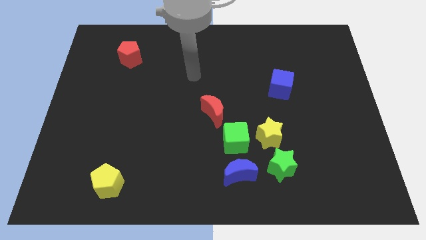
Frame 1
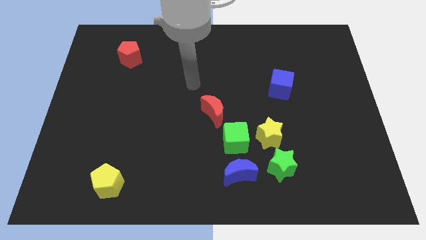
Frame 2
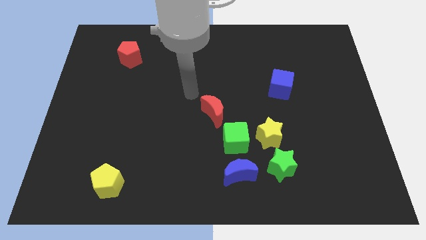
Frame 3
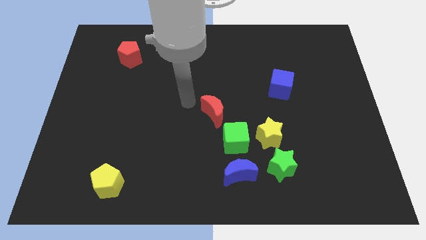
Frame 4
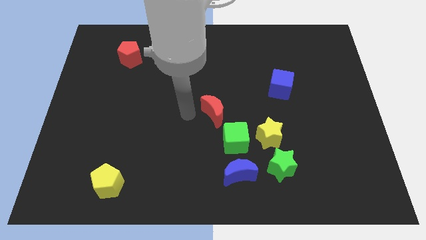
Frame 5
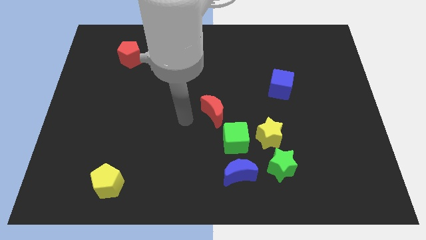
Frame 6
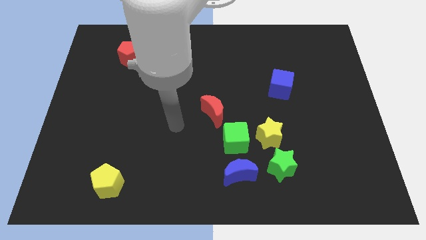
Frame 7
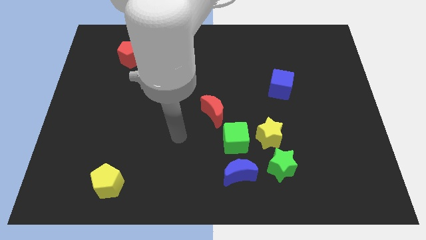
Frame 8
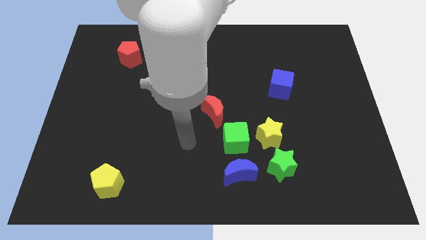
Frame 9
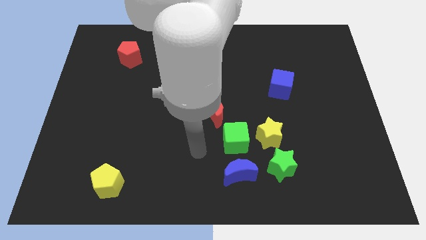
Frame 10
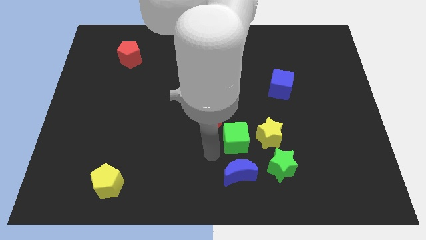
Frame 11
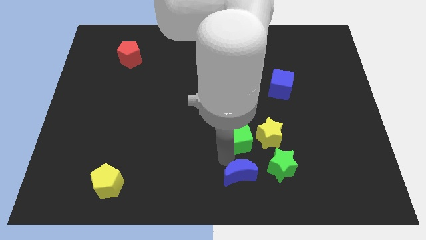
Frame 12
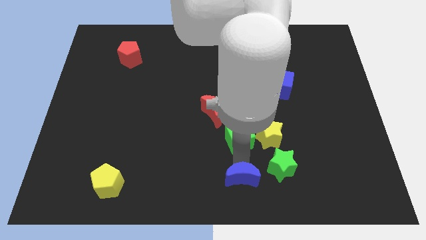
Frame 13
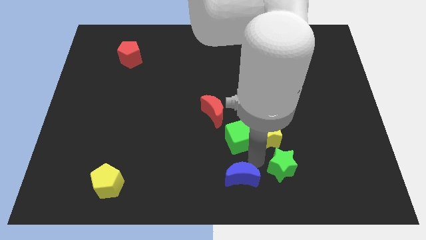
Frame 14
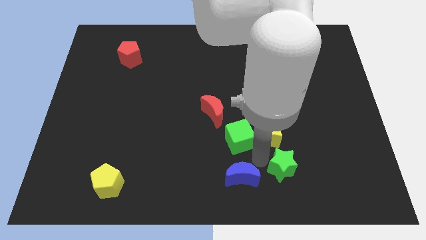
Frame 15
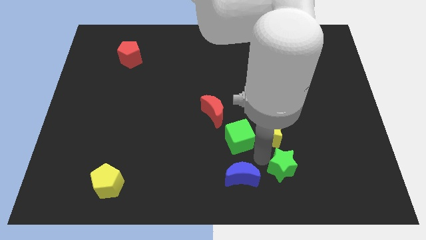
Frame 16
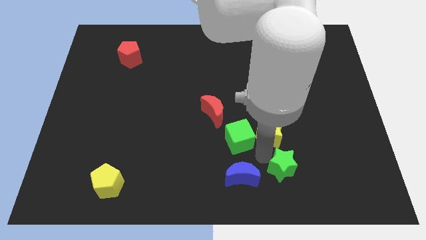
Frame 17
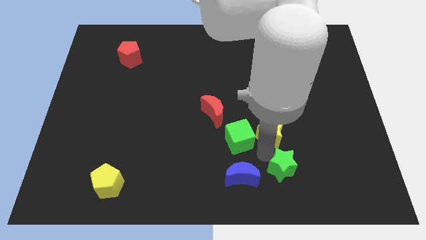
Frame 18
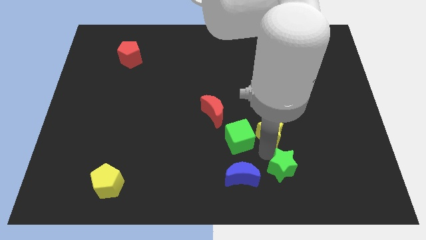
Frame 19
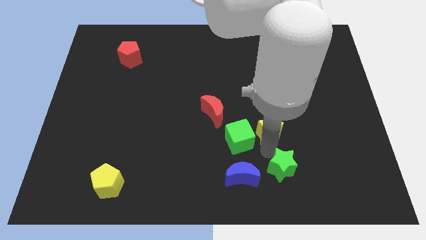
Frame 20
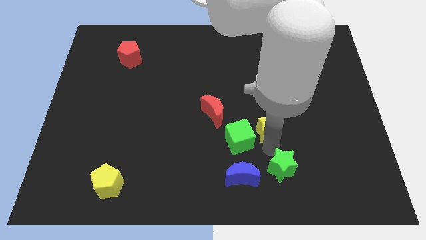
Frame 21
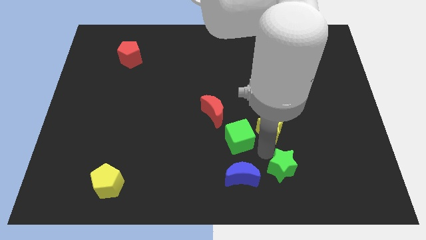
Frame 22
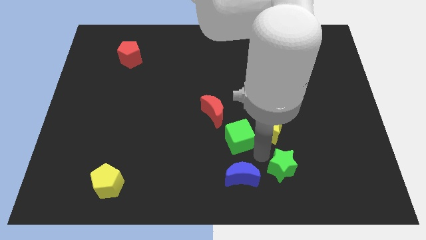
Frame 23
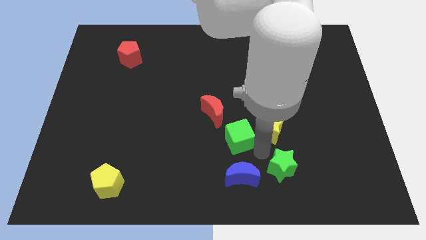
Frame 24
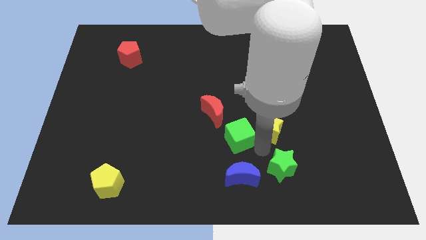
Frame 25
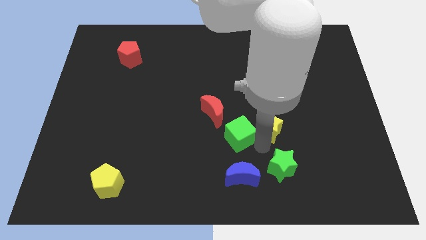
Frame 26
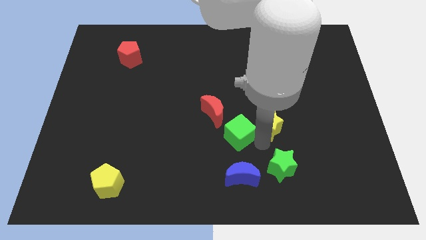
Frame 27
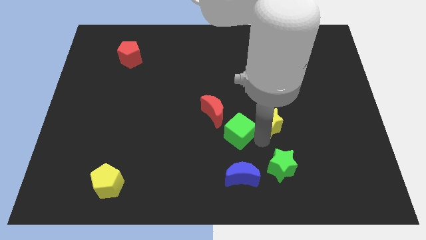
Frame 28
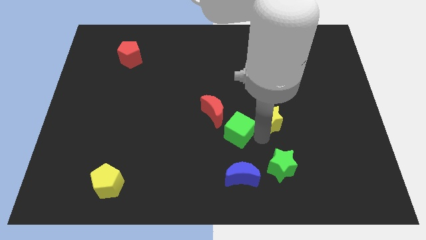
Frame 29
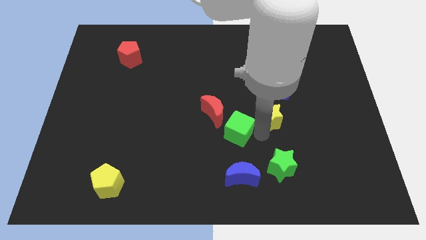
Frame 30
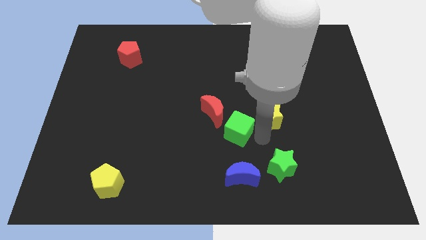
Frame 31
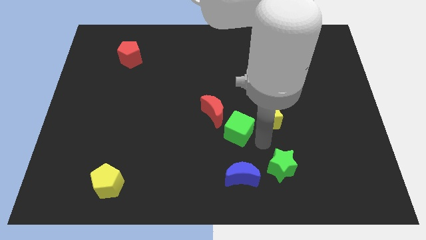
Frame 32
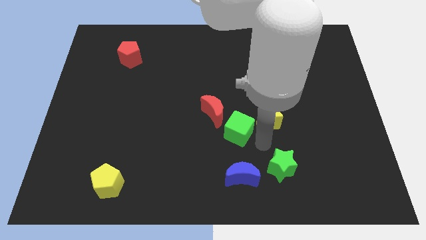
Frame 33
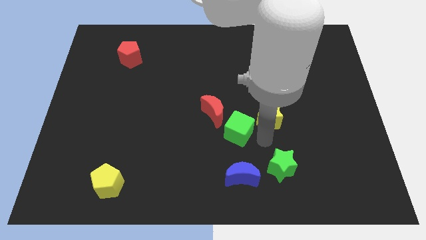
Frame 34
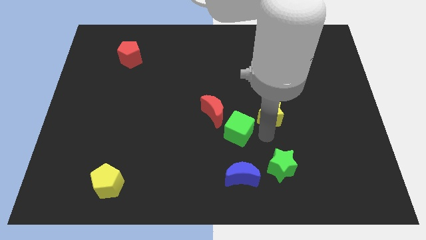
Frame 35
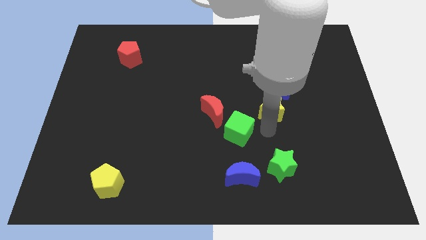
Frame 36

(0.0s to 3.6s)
separate the yellow star from the green cube and green star

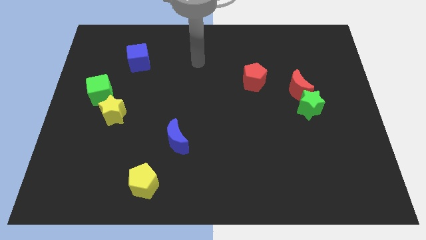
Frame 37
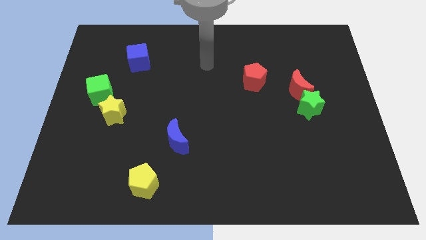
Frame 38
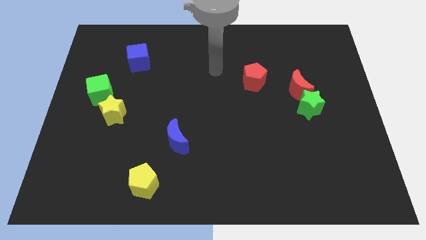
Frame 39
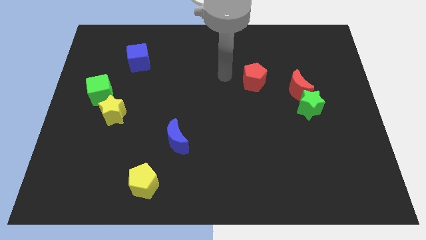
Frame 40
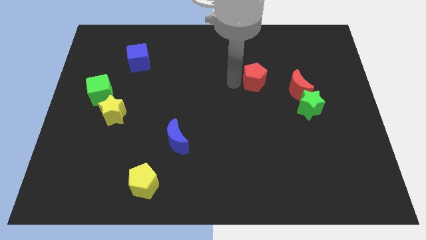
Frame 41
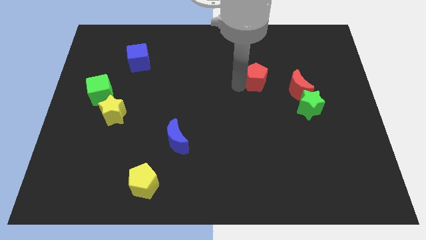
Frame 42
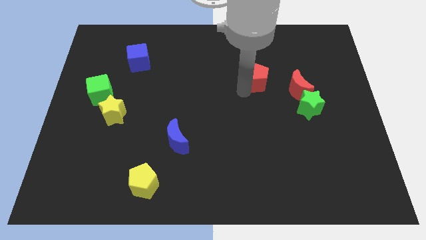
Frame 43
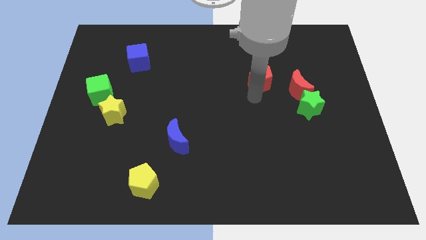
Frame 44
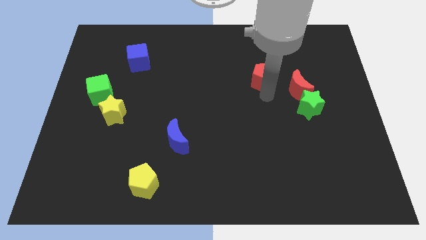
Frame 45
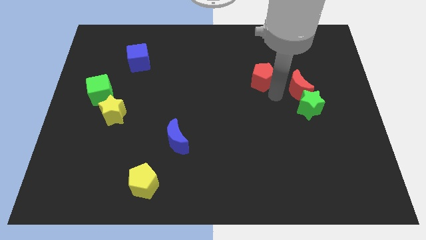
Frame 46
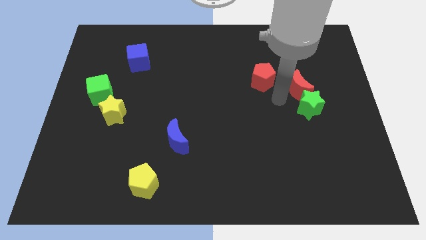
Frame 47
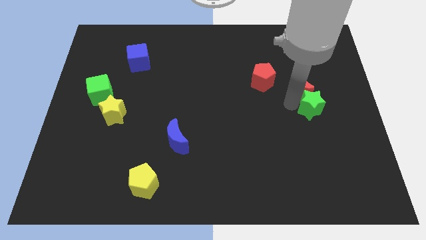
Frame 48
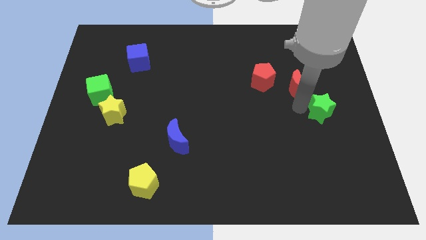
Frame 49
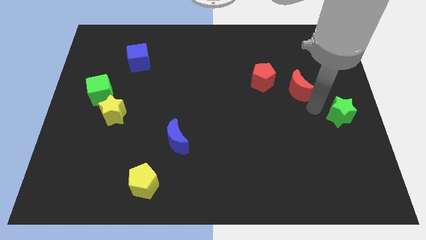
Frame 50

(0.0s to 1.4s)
move the red moon away from the green star

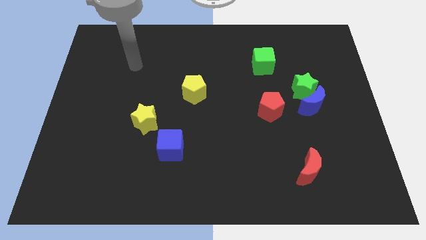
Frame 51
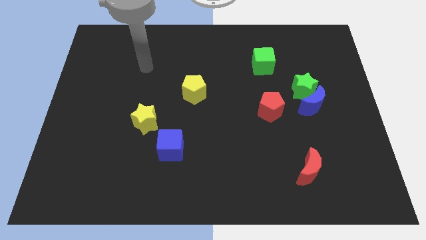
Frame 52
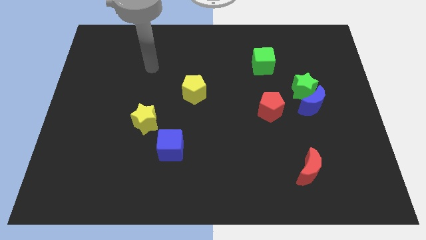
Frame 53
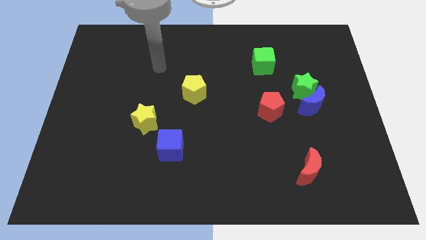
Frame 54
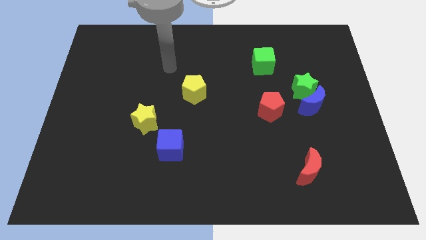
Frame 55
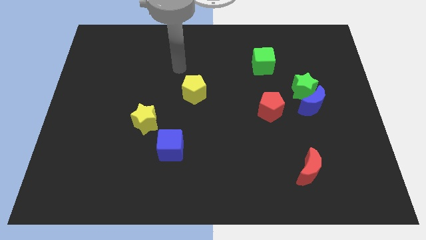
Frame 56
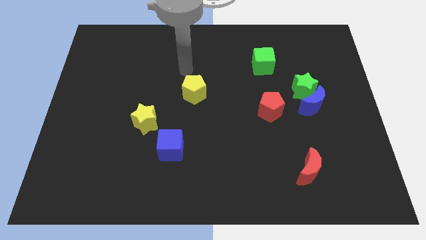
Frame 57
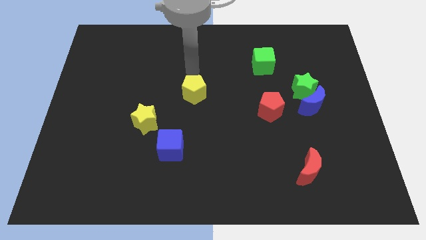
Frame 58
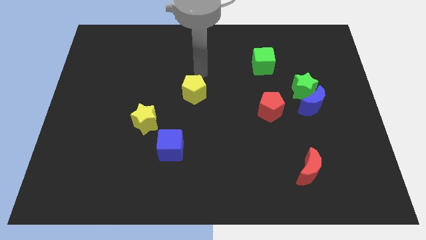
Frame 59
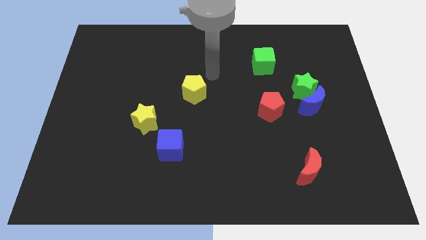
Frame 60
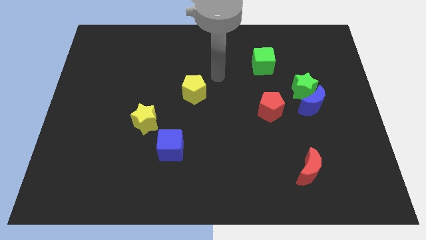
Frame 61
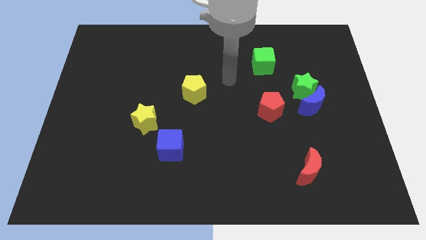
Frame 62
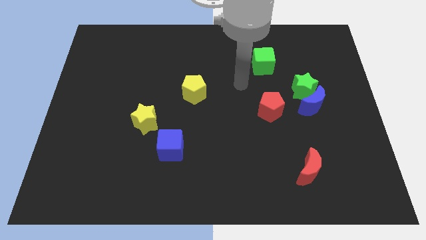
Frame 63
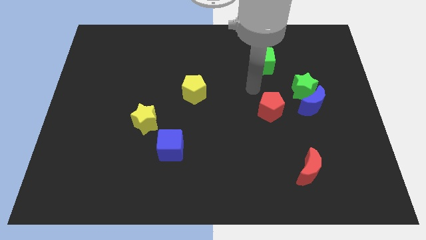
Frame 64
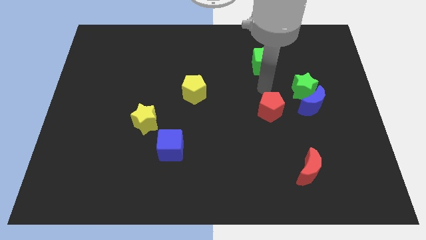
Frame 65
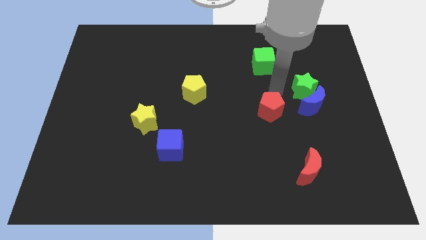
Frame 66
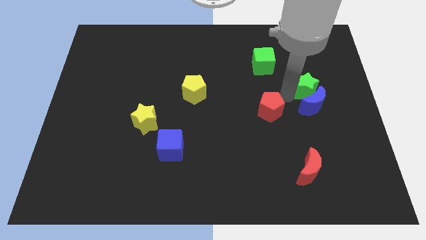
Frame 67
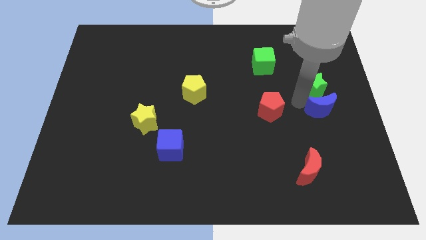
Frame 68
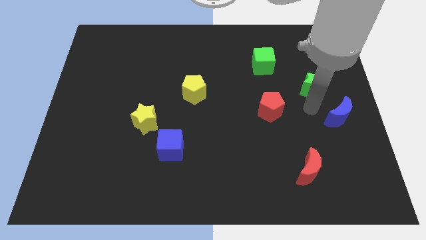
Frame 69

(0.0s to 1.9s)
separate the green star from the blue moon

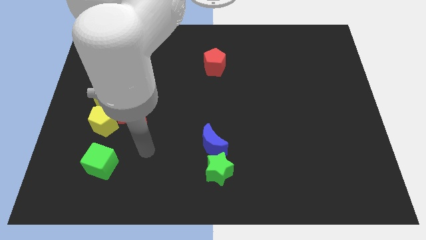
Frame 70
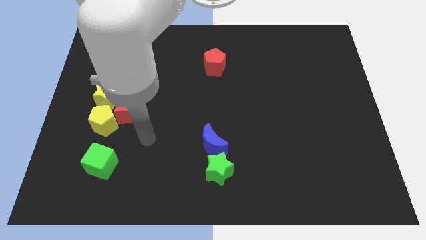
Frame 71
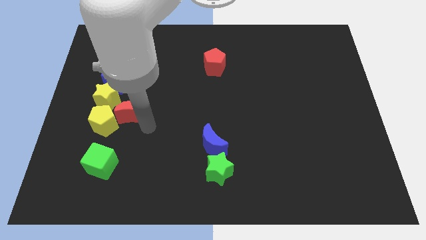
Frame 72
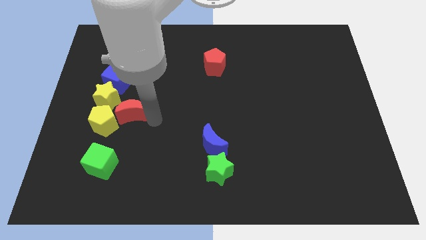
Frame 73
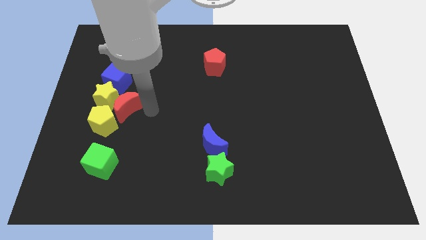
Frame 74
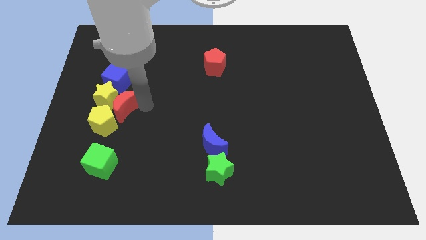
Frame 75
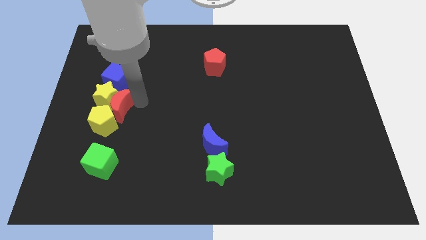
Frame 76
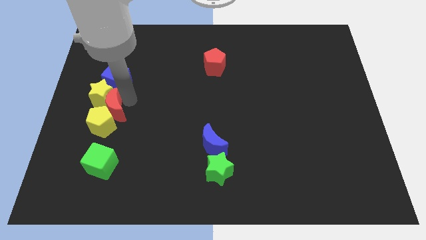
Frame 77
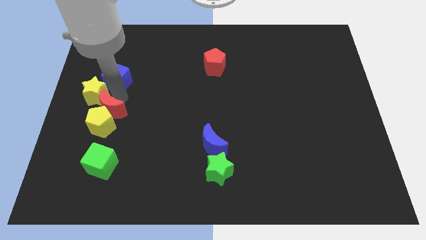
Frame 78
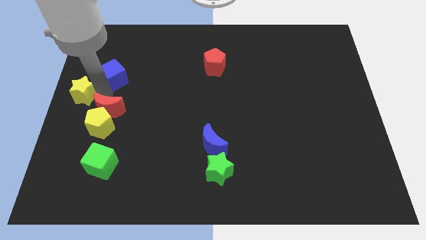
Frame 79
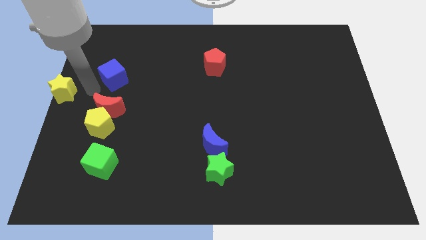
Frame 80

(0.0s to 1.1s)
separate the blue cube from the yellow star

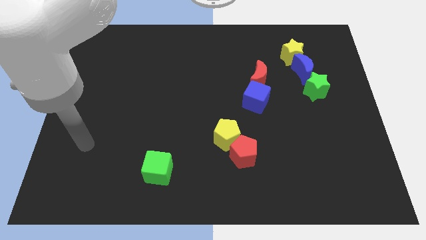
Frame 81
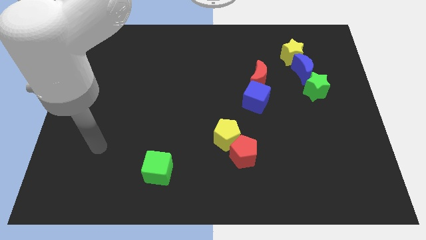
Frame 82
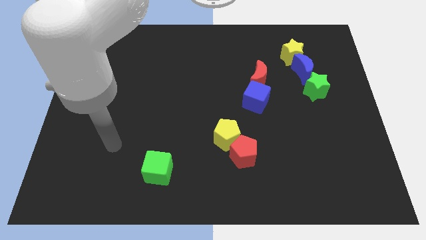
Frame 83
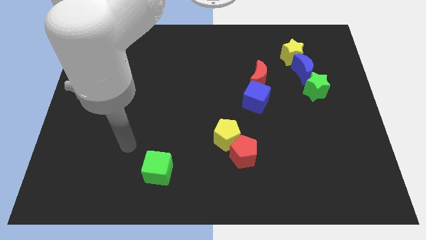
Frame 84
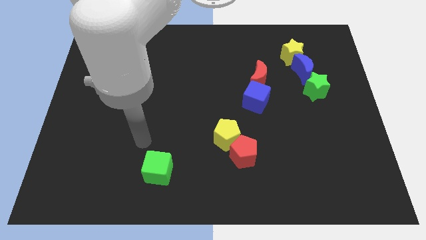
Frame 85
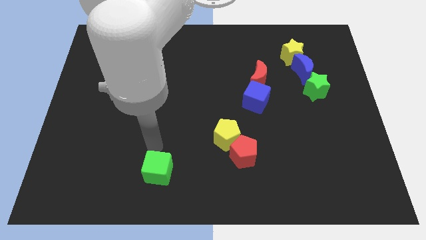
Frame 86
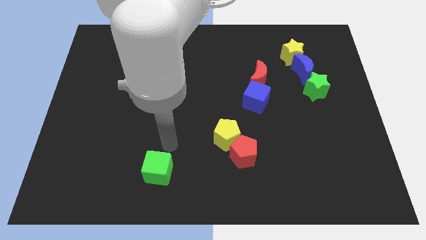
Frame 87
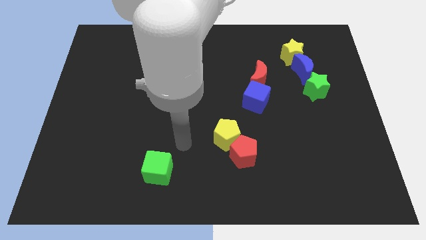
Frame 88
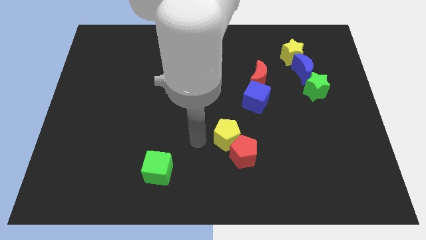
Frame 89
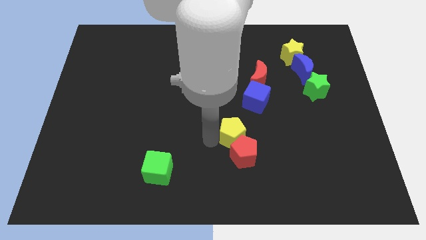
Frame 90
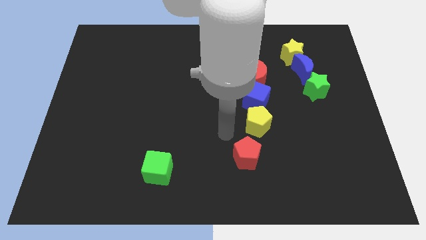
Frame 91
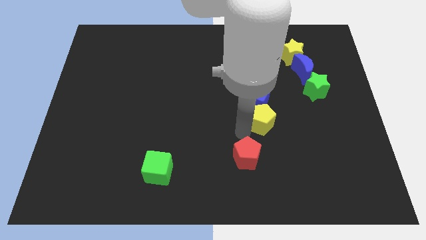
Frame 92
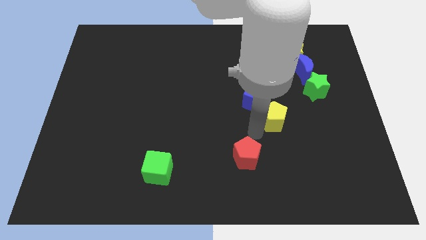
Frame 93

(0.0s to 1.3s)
separate the red pentagon from the yellow pentagon
